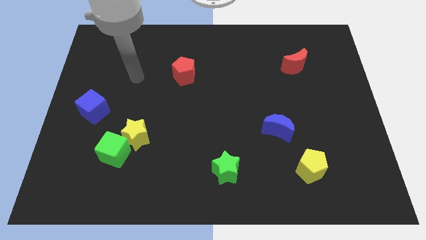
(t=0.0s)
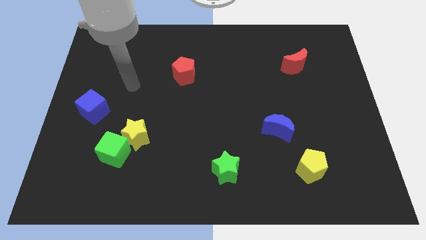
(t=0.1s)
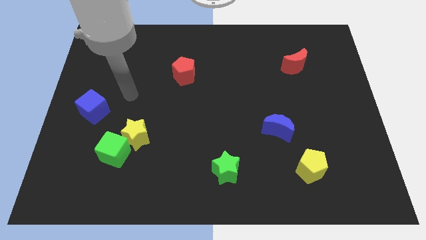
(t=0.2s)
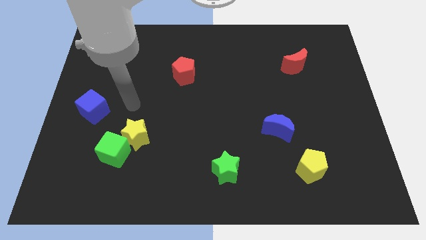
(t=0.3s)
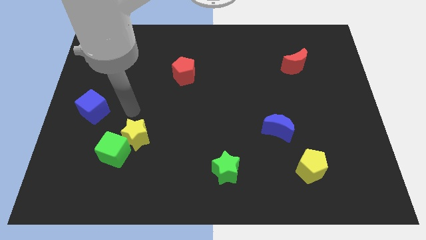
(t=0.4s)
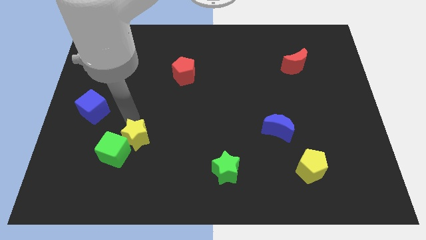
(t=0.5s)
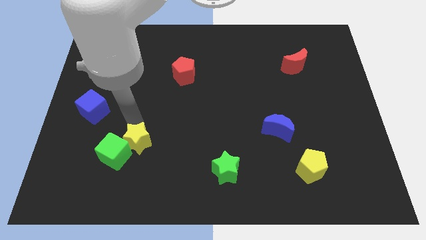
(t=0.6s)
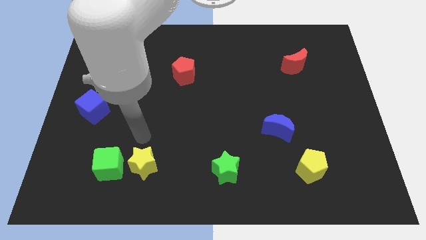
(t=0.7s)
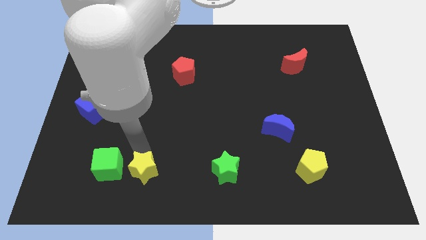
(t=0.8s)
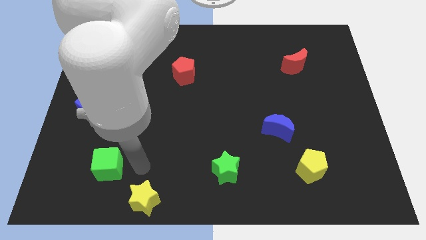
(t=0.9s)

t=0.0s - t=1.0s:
separate the green cube from the yellow star

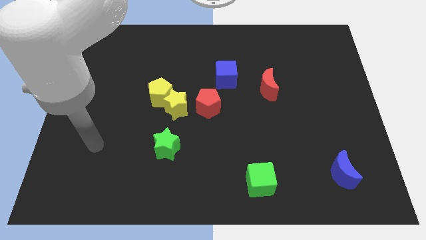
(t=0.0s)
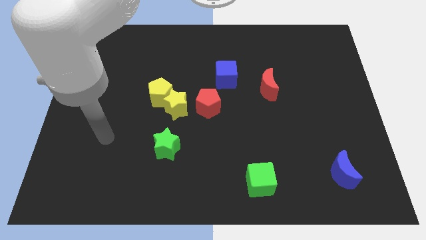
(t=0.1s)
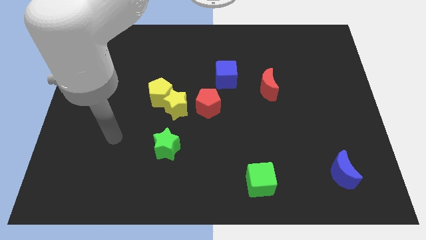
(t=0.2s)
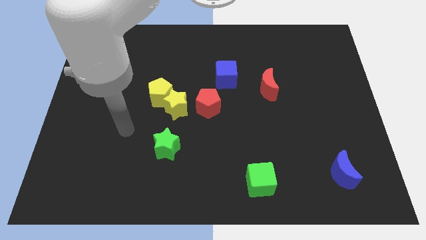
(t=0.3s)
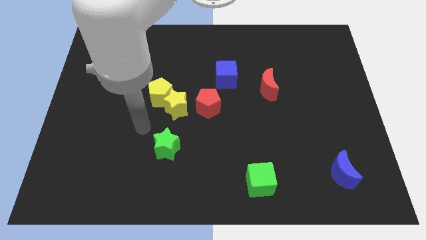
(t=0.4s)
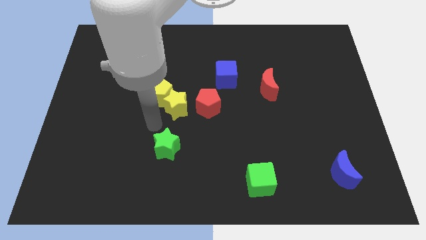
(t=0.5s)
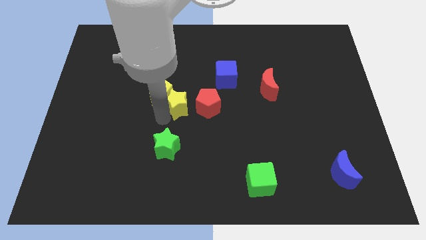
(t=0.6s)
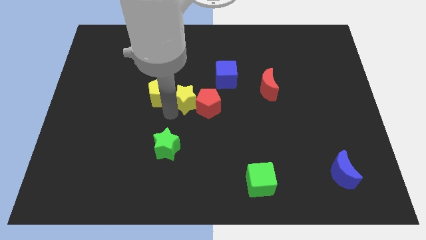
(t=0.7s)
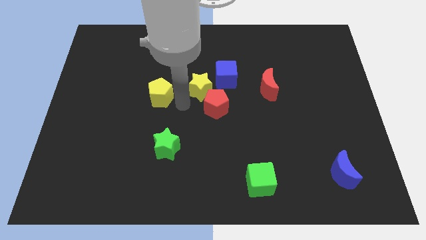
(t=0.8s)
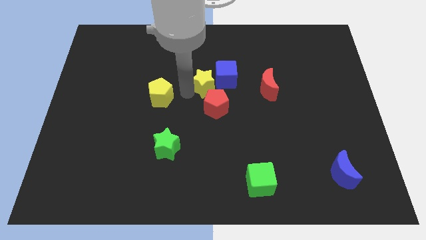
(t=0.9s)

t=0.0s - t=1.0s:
pull the yellow pentagon apart from the yellow star

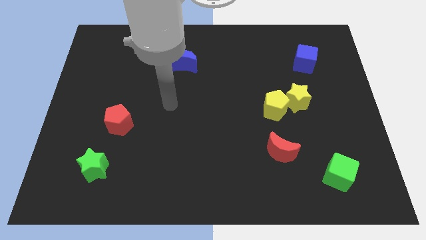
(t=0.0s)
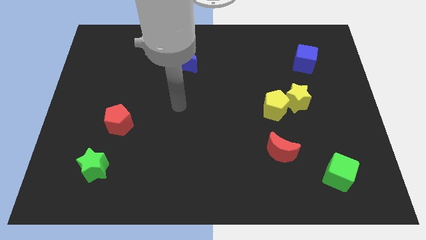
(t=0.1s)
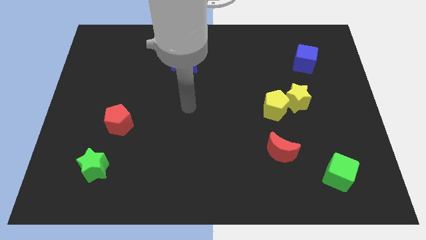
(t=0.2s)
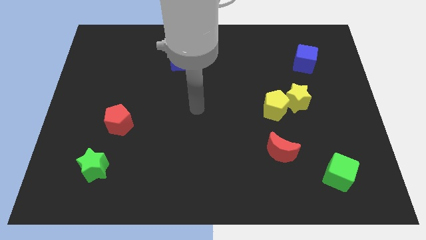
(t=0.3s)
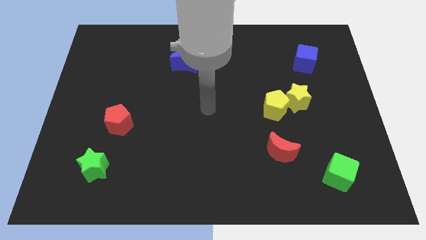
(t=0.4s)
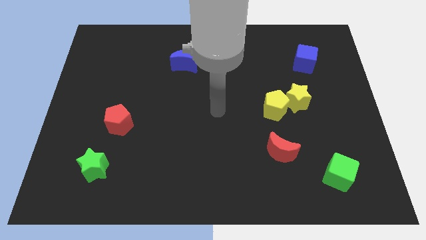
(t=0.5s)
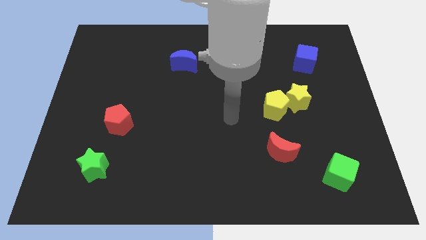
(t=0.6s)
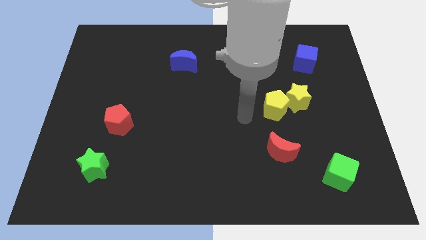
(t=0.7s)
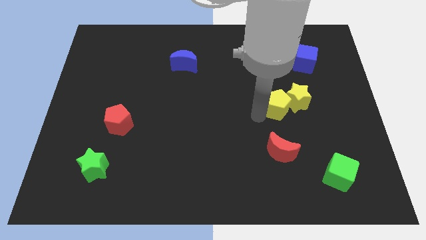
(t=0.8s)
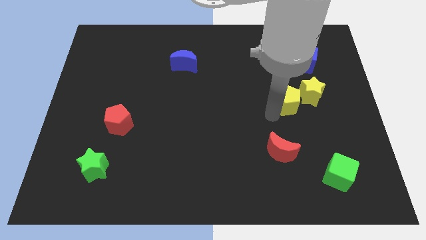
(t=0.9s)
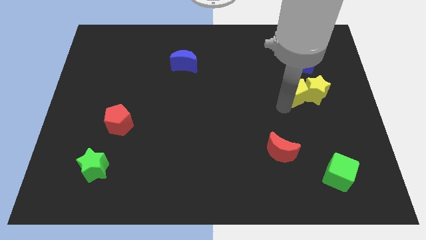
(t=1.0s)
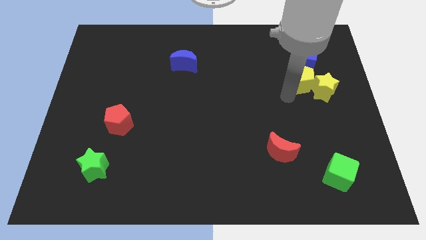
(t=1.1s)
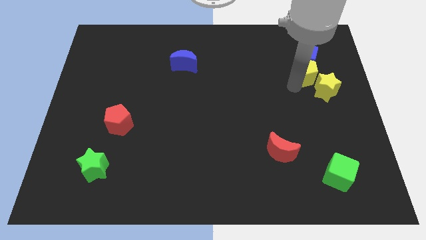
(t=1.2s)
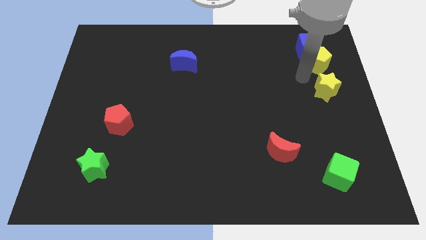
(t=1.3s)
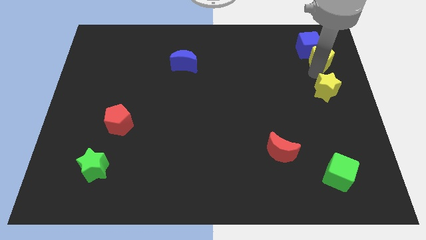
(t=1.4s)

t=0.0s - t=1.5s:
pull the yellow star apart from the yellow pentagon

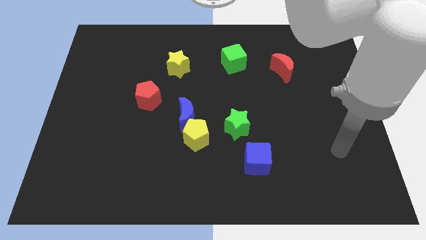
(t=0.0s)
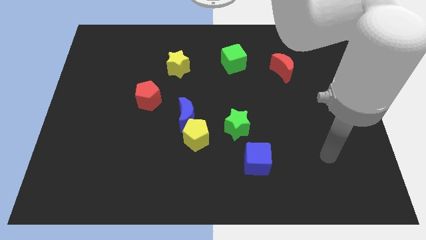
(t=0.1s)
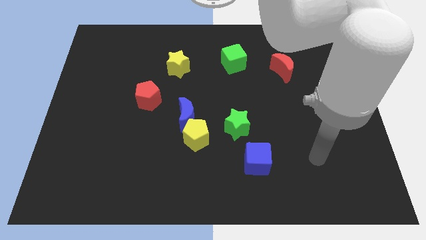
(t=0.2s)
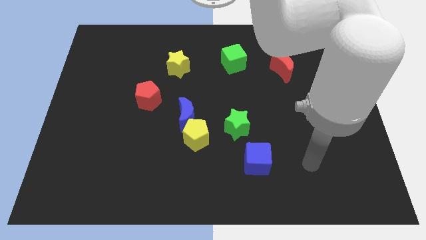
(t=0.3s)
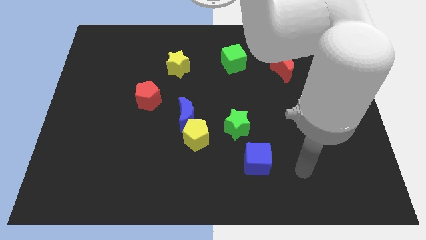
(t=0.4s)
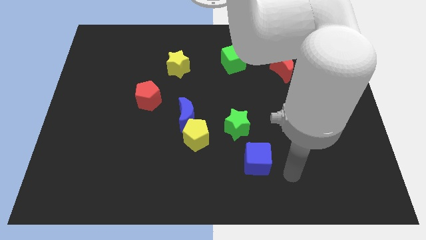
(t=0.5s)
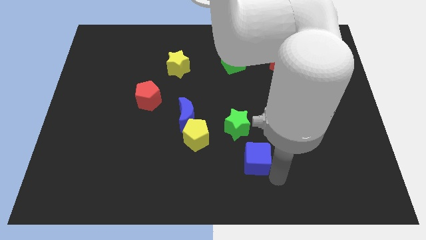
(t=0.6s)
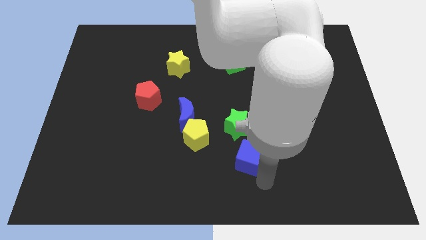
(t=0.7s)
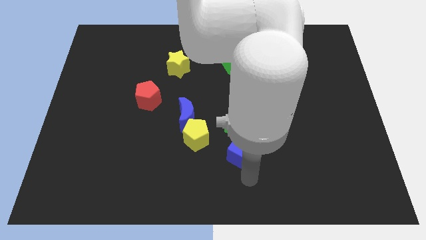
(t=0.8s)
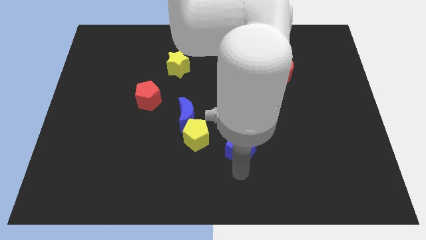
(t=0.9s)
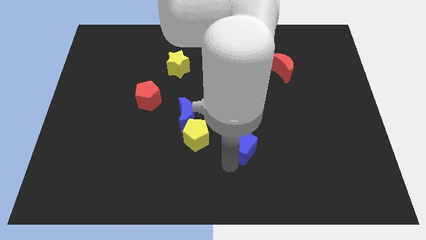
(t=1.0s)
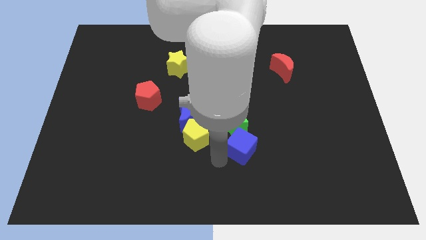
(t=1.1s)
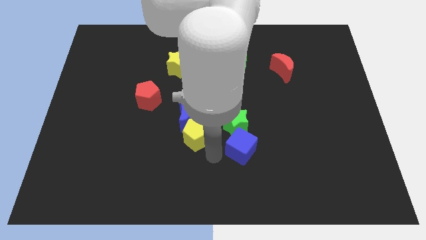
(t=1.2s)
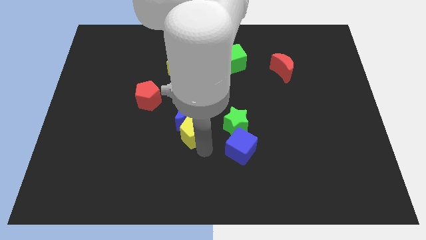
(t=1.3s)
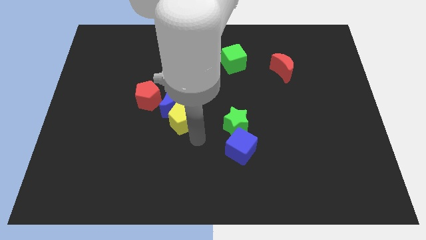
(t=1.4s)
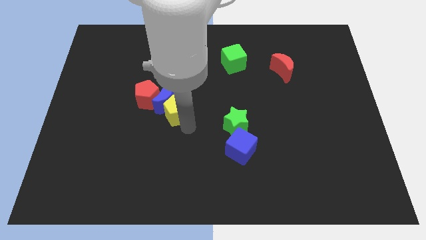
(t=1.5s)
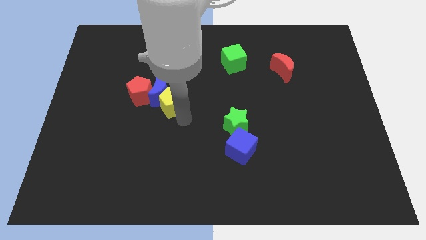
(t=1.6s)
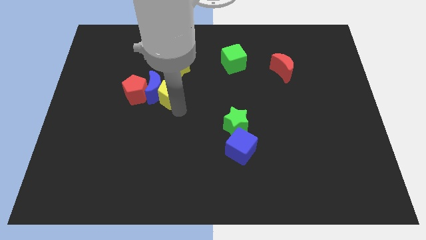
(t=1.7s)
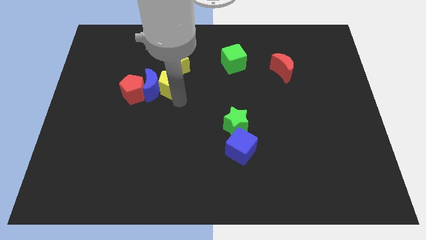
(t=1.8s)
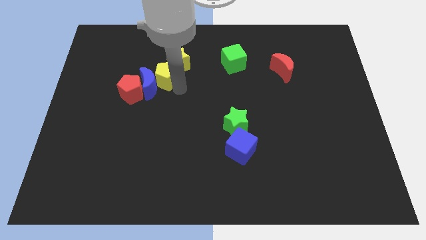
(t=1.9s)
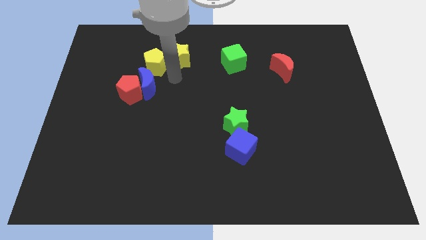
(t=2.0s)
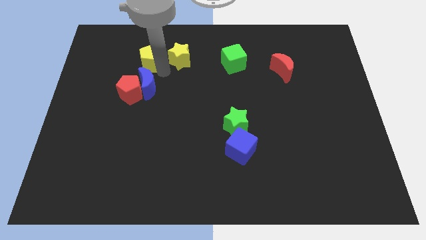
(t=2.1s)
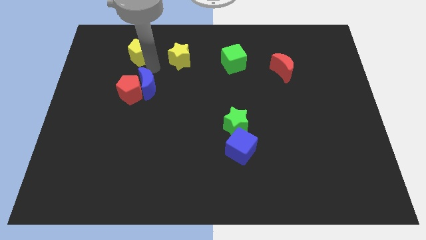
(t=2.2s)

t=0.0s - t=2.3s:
separate the blue moon from the yellow pentagon

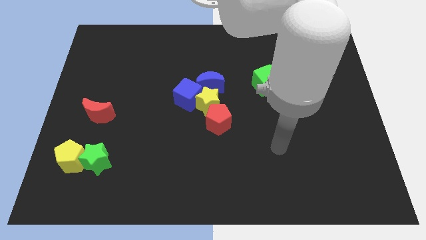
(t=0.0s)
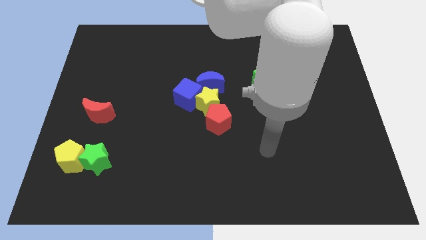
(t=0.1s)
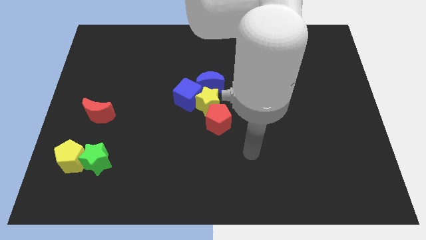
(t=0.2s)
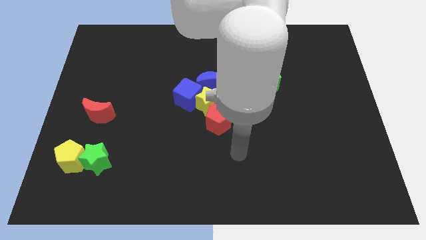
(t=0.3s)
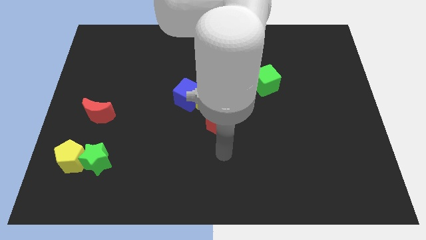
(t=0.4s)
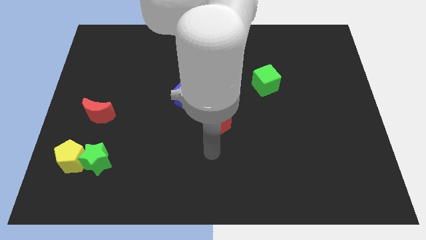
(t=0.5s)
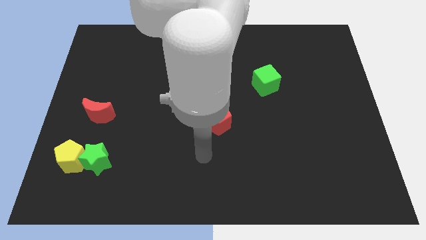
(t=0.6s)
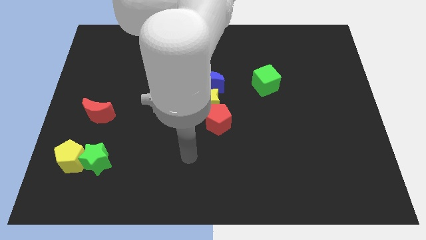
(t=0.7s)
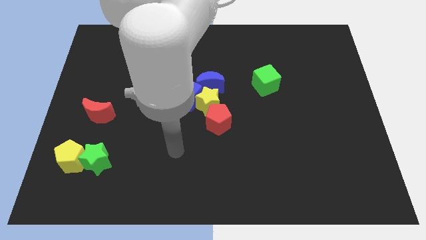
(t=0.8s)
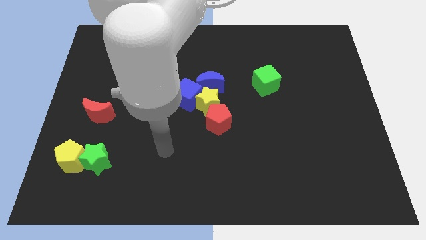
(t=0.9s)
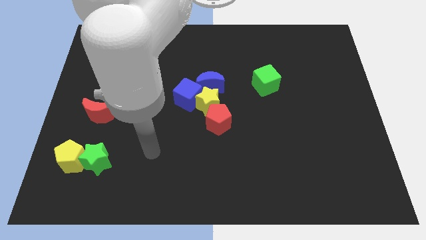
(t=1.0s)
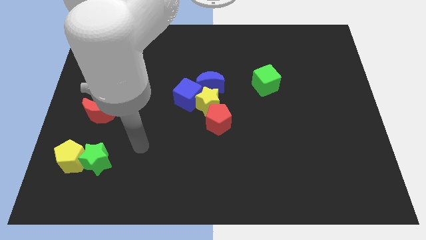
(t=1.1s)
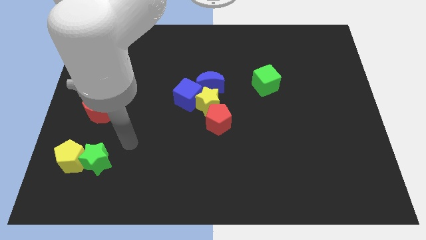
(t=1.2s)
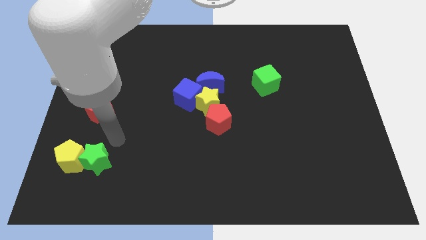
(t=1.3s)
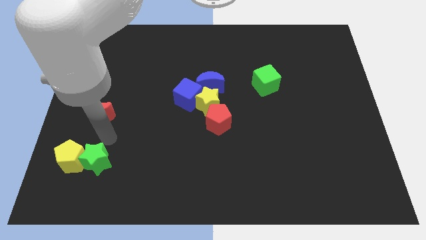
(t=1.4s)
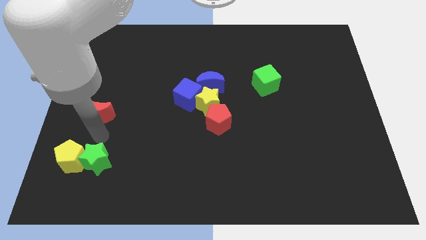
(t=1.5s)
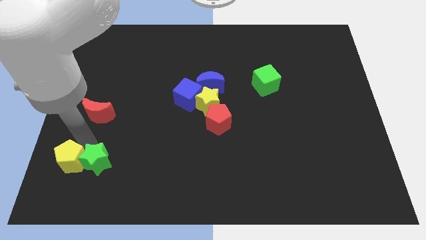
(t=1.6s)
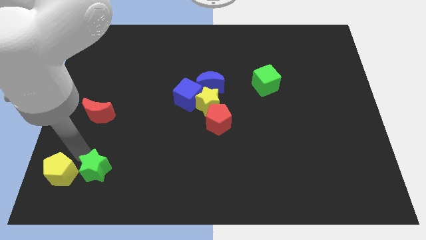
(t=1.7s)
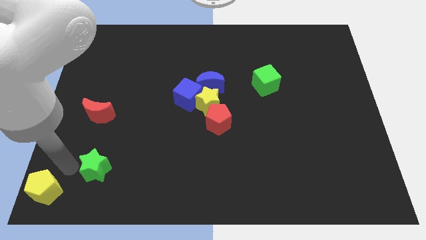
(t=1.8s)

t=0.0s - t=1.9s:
separate the green star from the yellow pentagon

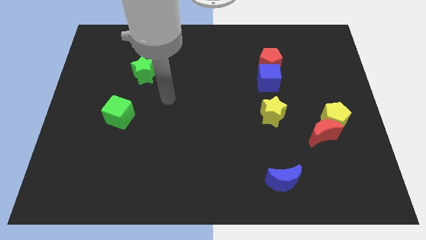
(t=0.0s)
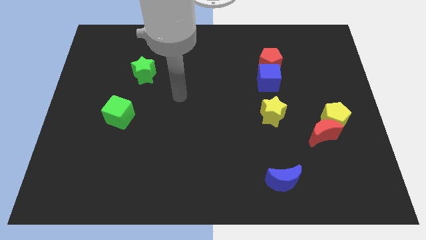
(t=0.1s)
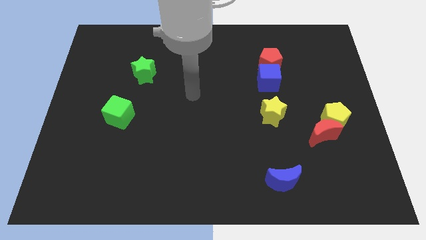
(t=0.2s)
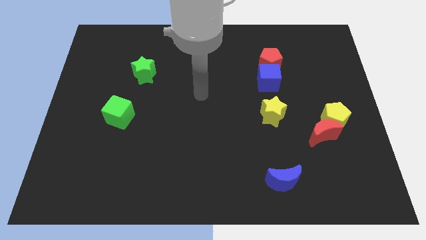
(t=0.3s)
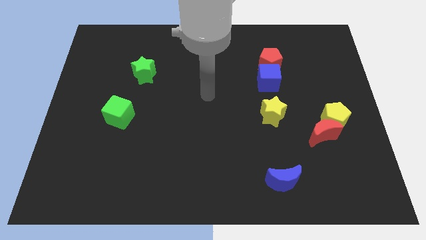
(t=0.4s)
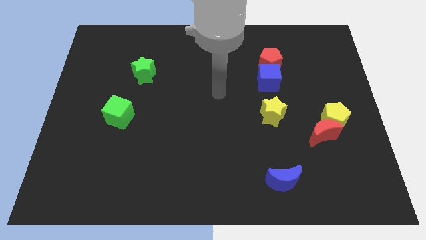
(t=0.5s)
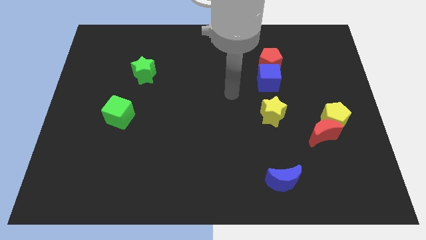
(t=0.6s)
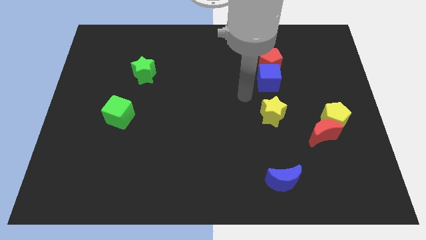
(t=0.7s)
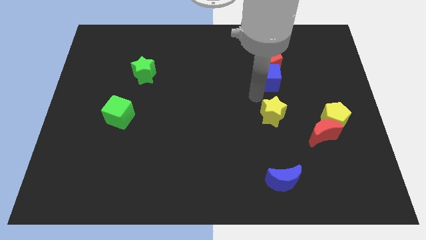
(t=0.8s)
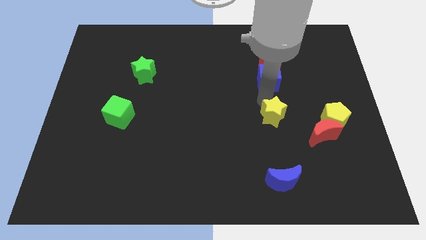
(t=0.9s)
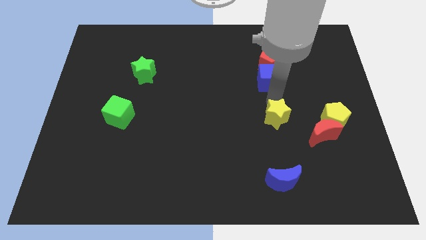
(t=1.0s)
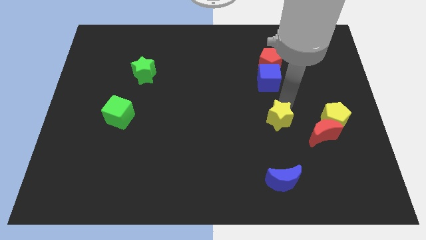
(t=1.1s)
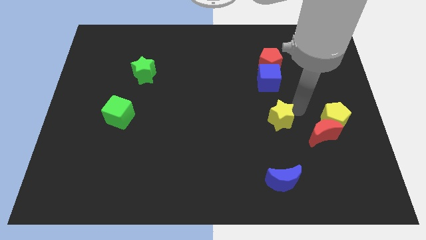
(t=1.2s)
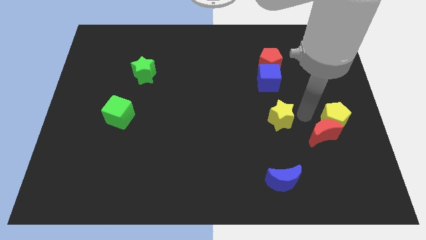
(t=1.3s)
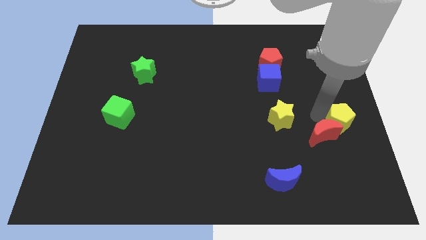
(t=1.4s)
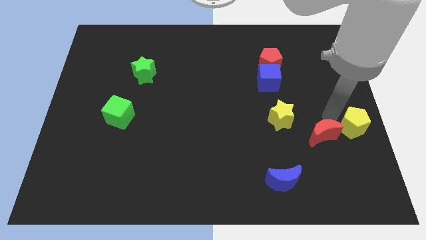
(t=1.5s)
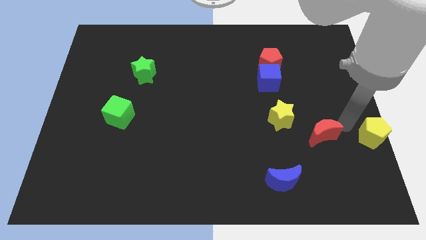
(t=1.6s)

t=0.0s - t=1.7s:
move the red moon away from the yellow pentagon
